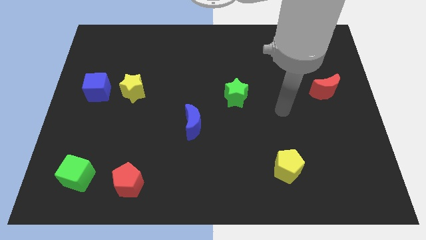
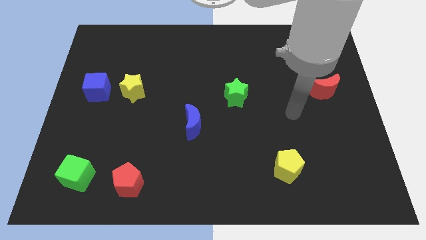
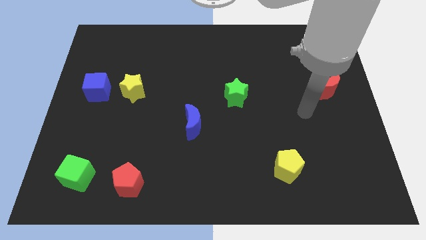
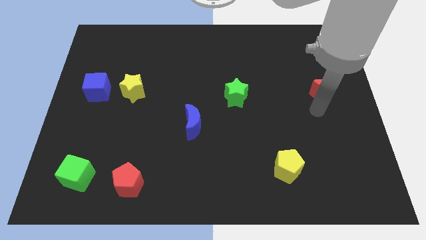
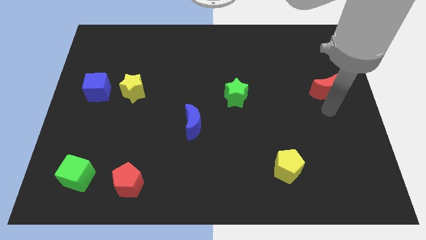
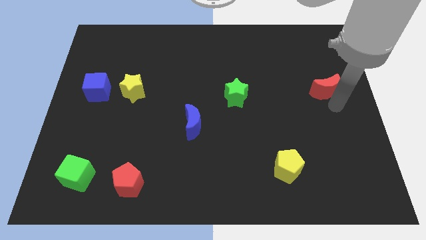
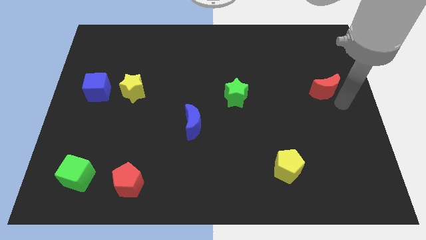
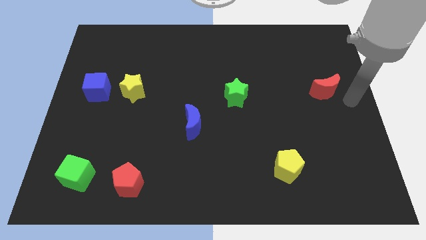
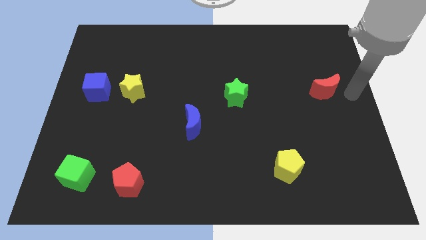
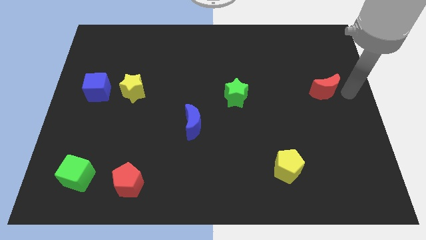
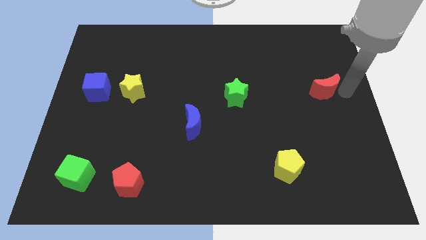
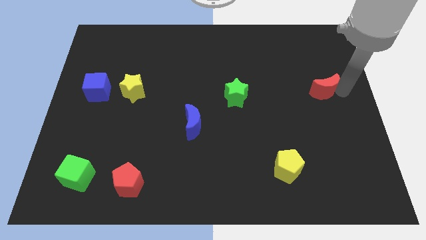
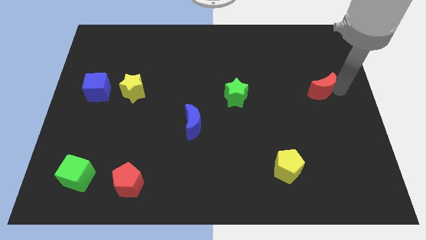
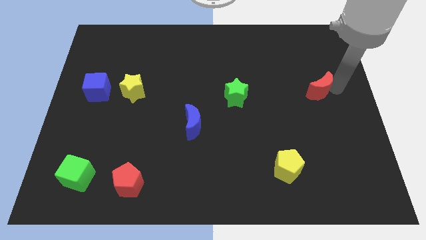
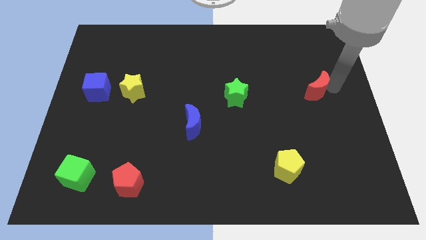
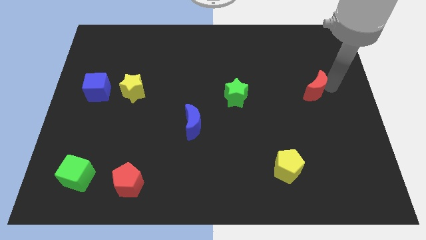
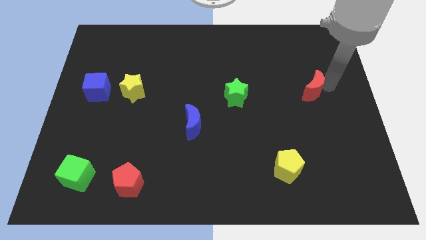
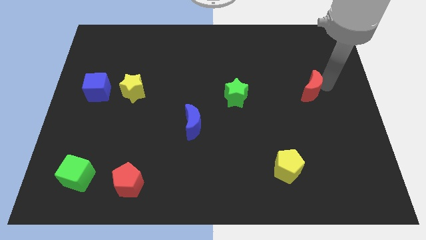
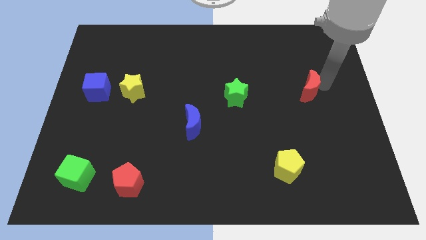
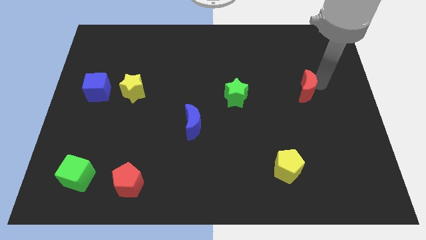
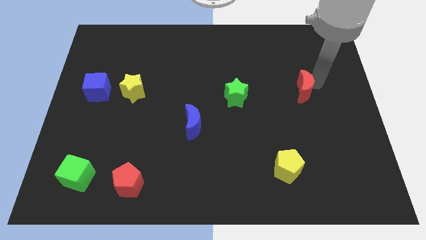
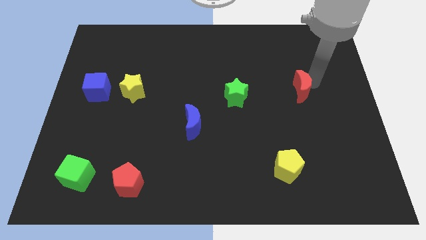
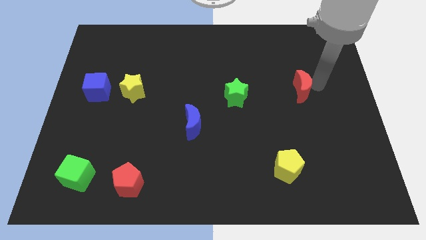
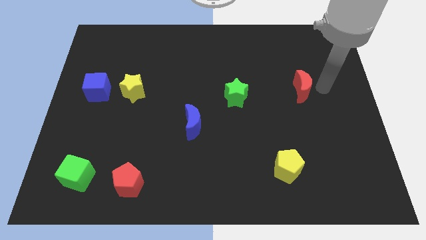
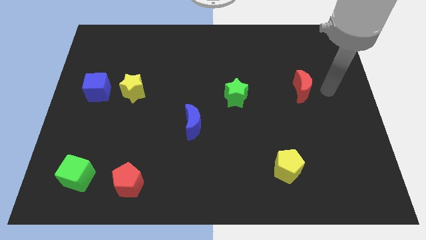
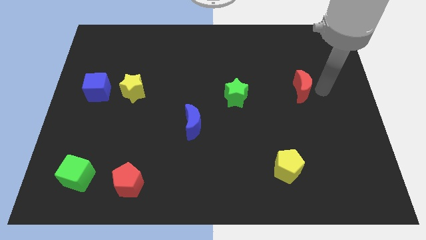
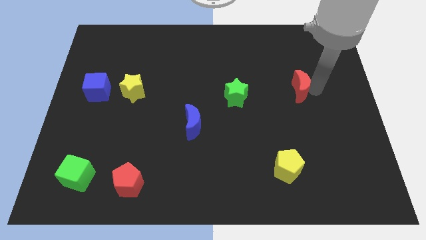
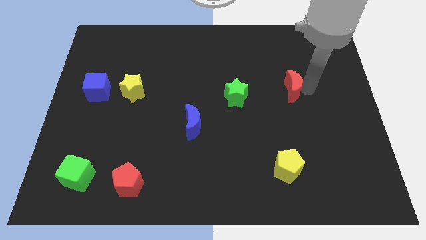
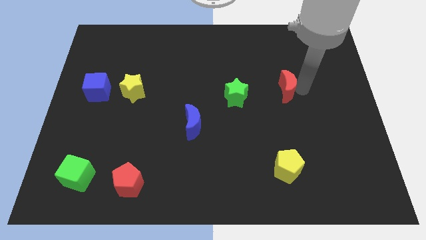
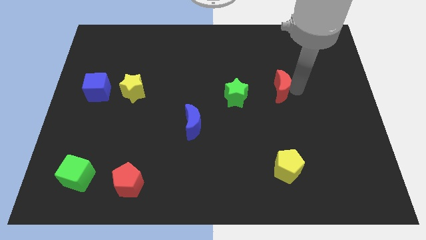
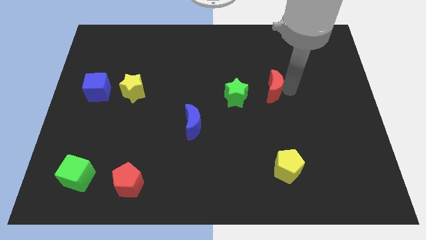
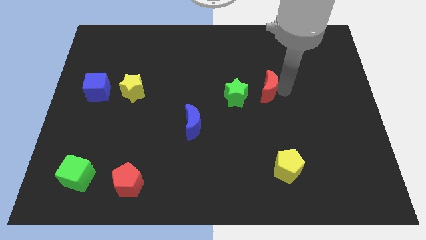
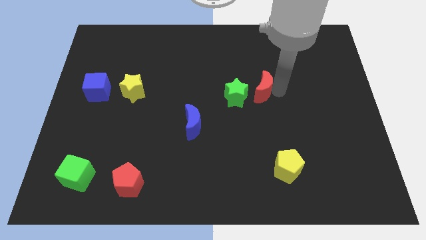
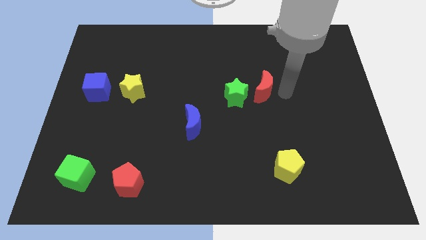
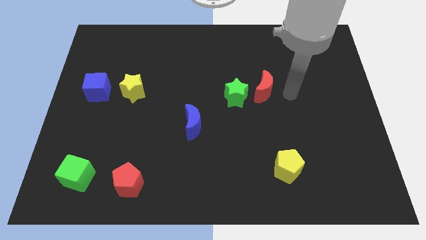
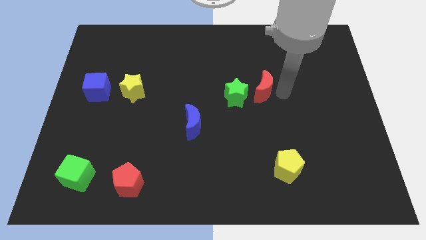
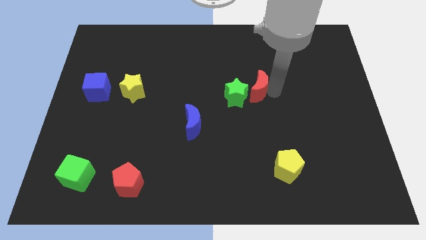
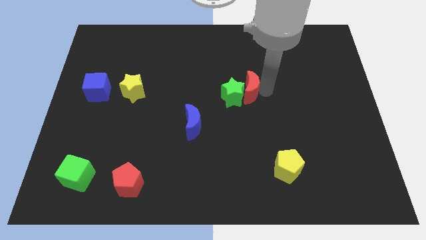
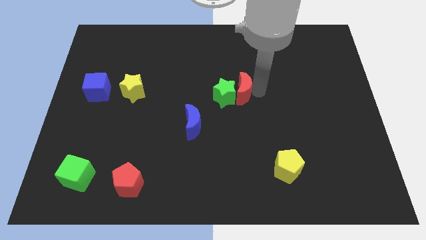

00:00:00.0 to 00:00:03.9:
push the red moon left

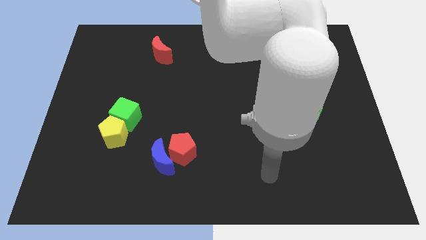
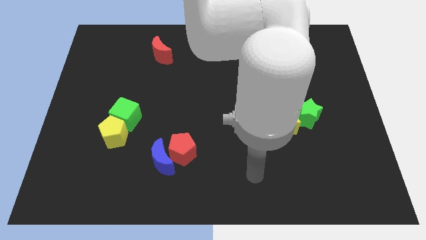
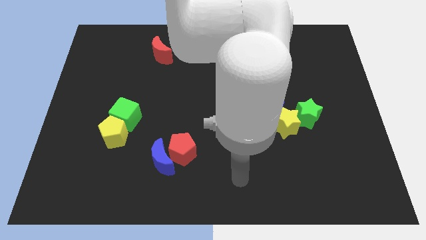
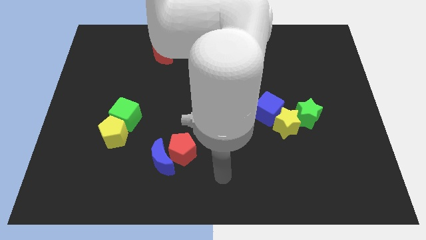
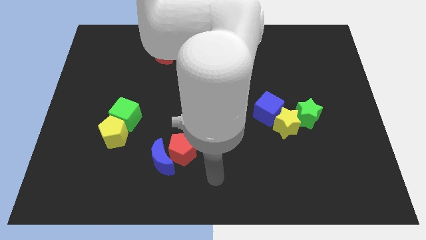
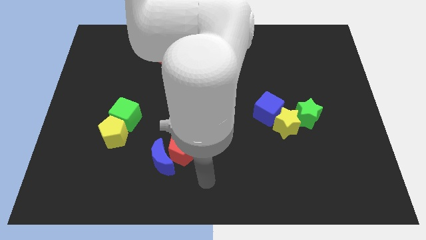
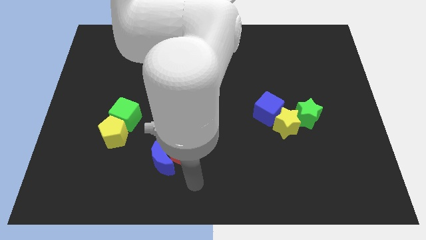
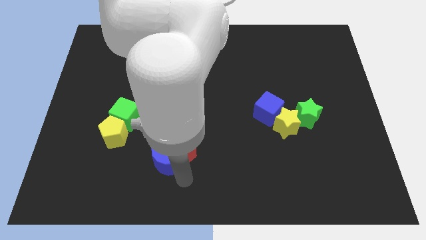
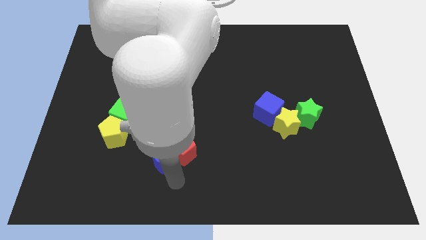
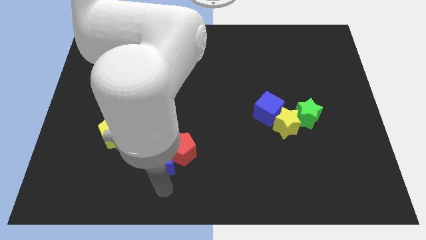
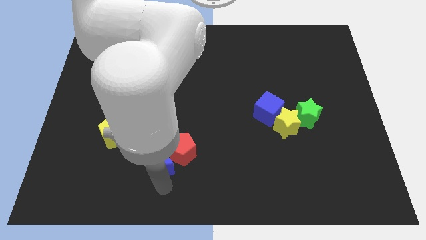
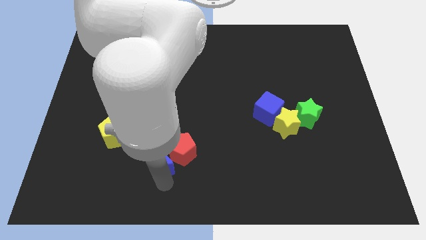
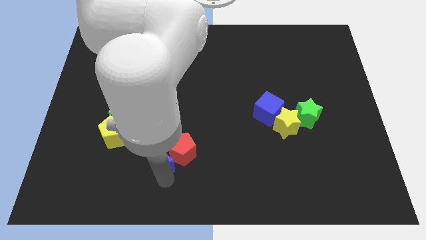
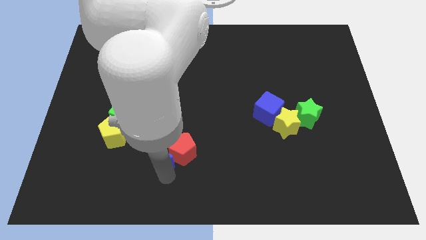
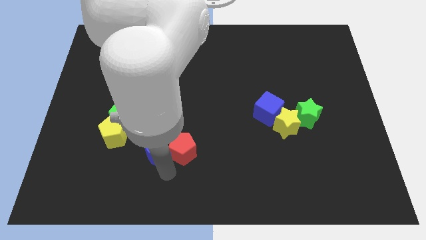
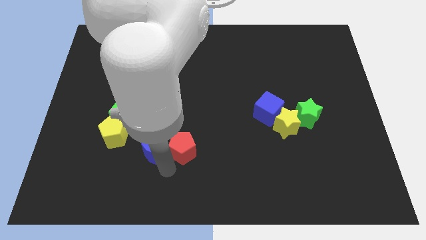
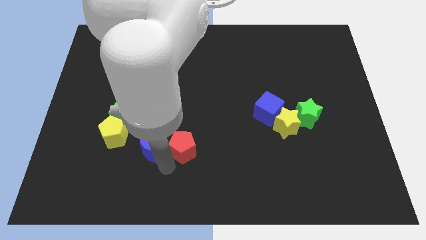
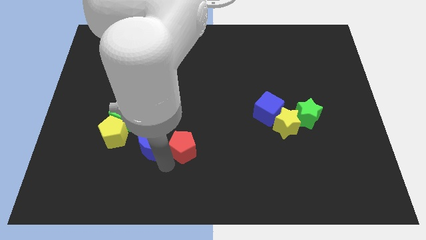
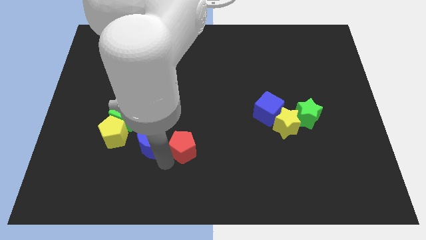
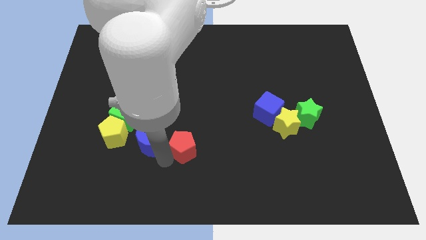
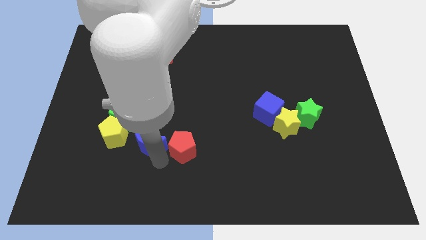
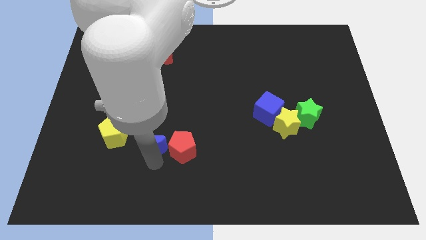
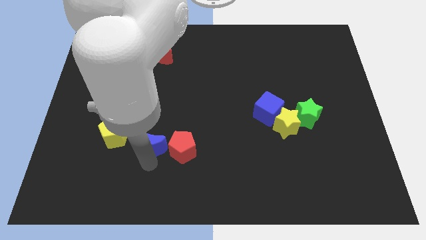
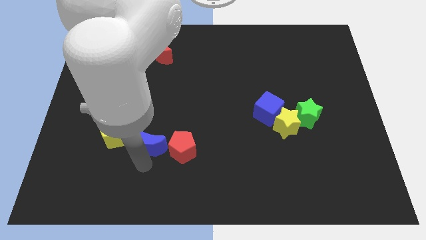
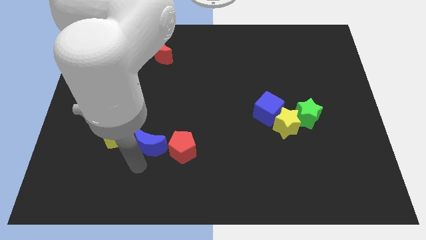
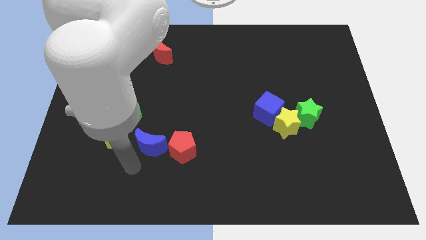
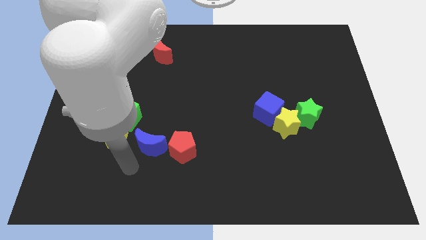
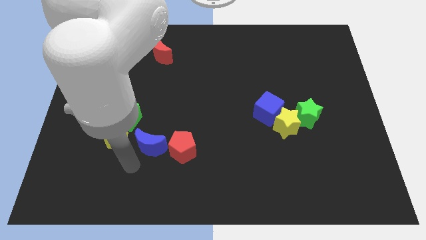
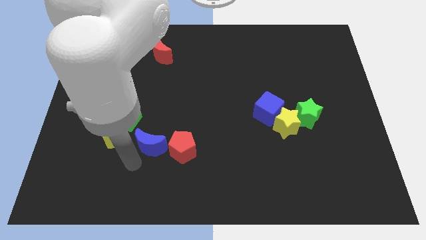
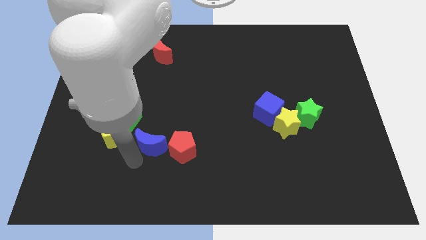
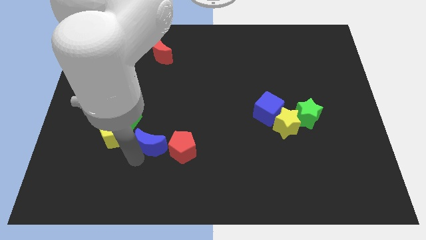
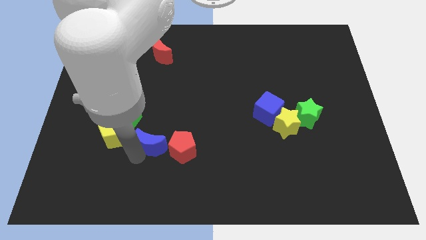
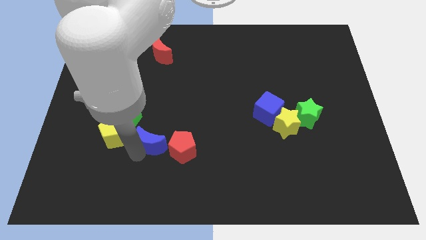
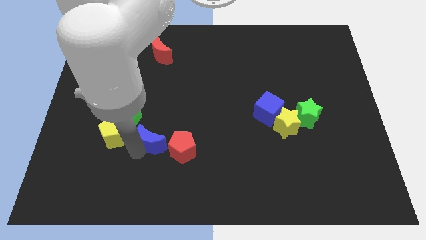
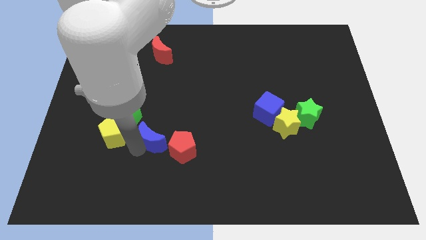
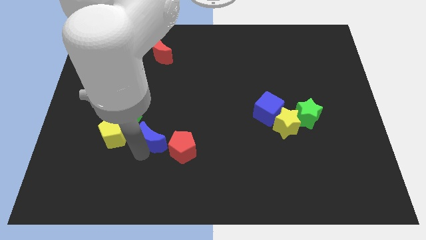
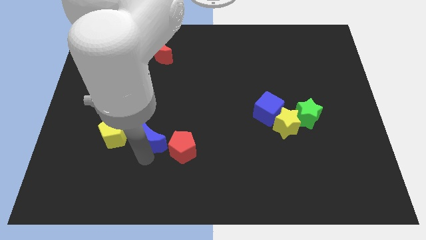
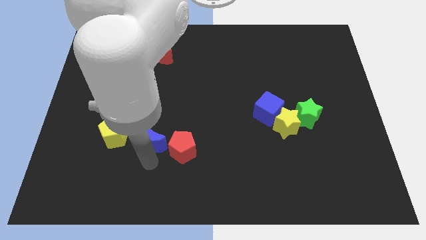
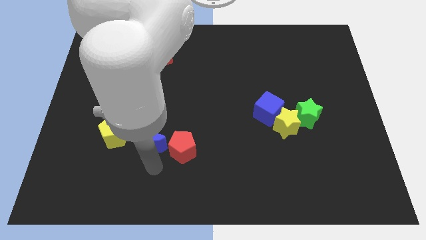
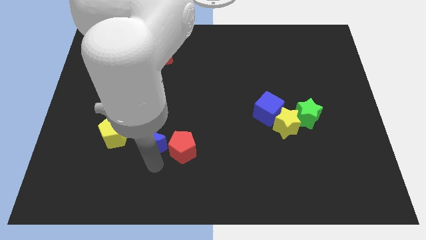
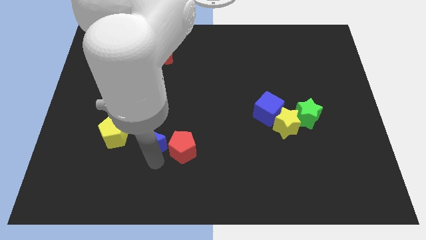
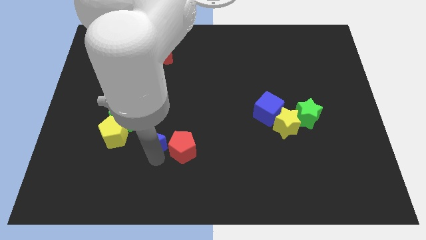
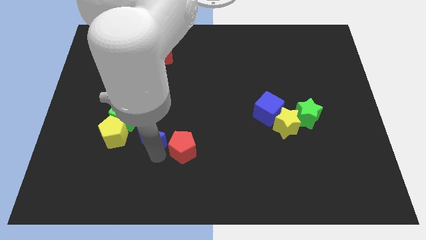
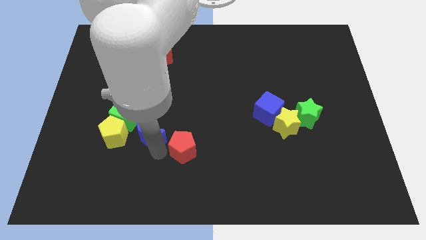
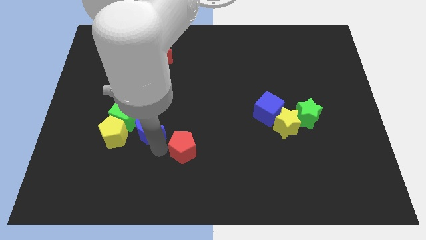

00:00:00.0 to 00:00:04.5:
slightly move the blue moon upwards and to the left
